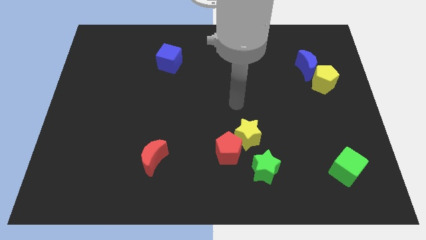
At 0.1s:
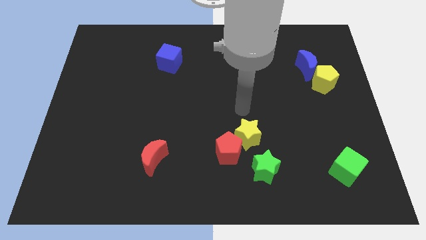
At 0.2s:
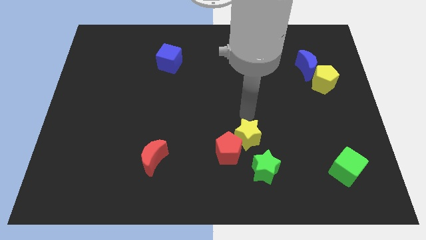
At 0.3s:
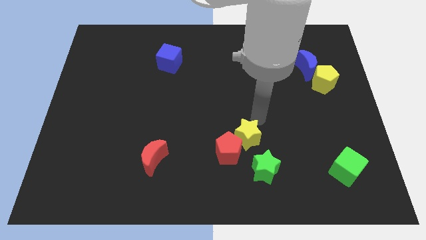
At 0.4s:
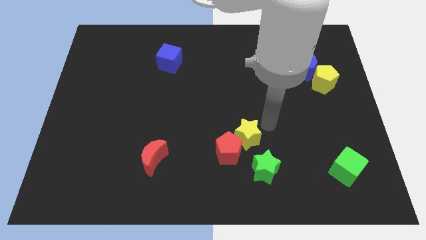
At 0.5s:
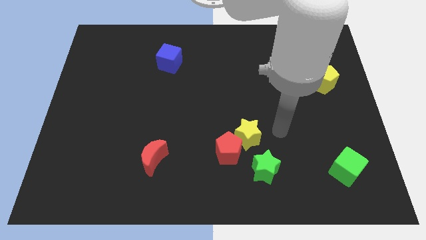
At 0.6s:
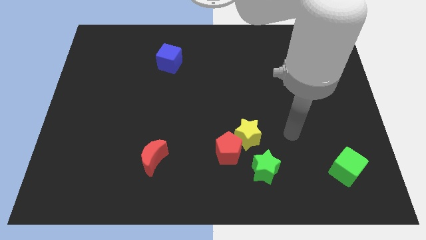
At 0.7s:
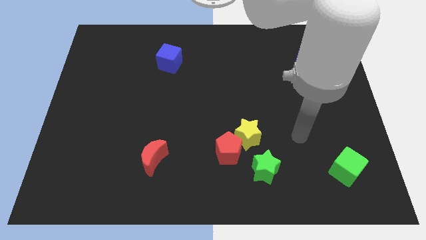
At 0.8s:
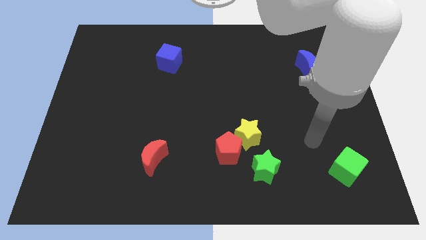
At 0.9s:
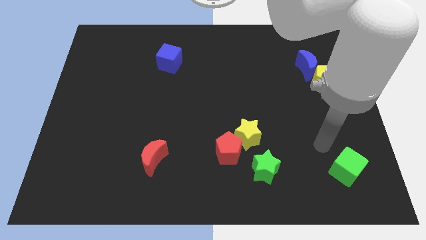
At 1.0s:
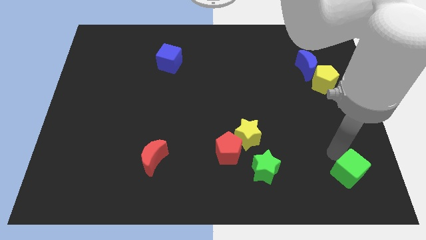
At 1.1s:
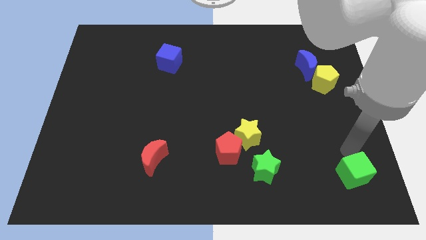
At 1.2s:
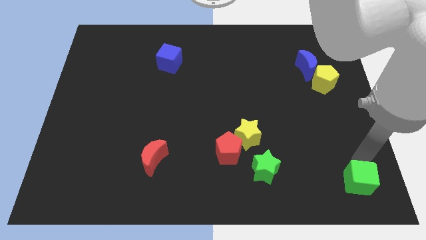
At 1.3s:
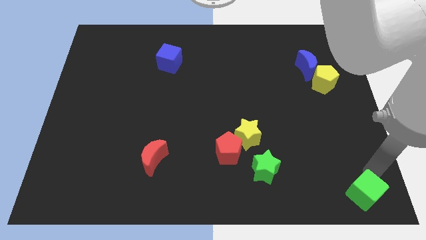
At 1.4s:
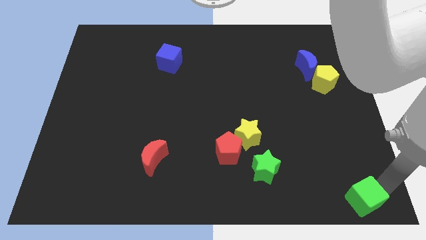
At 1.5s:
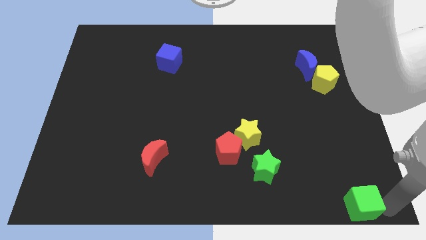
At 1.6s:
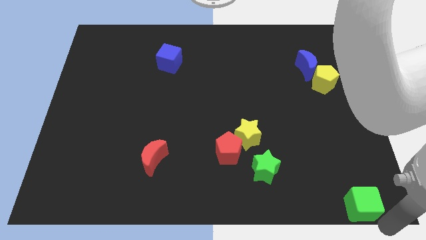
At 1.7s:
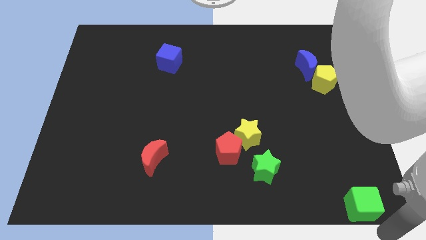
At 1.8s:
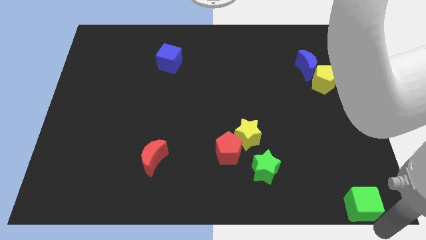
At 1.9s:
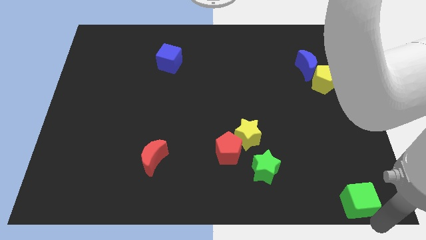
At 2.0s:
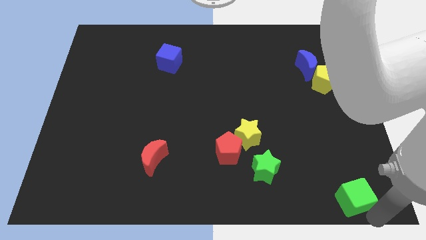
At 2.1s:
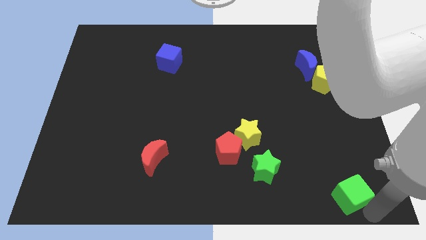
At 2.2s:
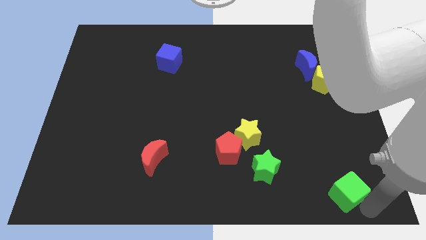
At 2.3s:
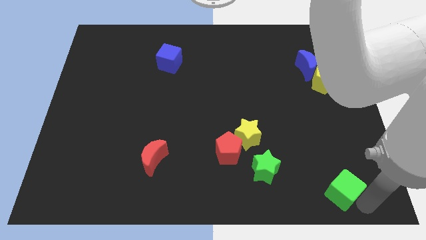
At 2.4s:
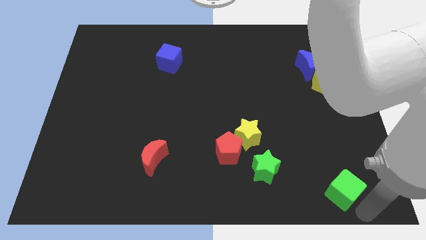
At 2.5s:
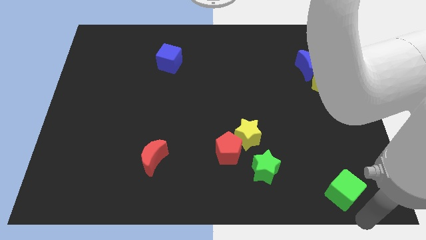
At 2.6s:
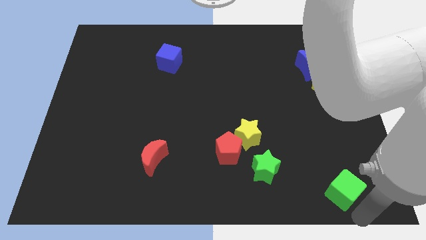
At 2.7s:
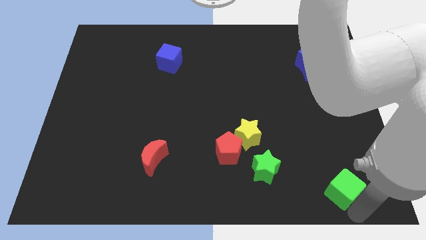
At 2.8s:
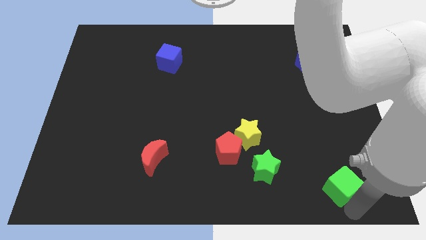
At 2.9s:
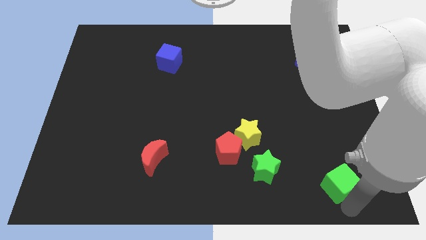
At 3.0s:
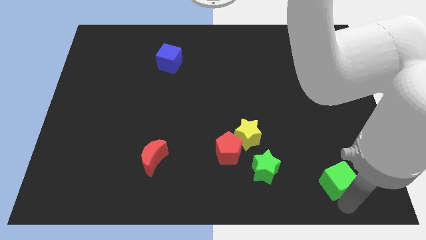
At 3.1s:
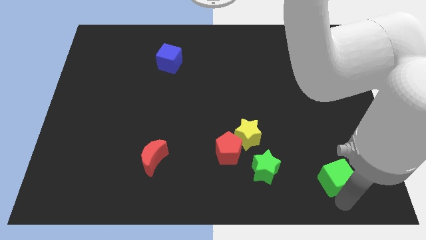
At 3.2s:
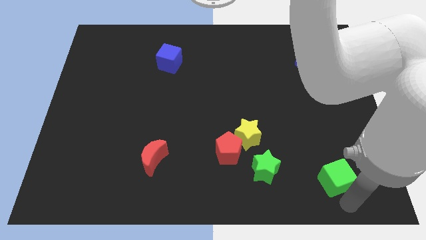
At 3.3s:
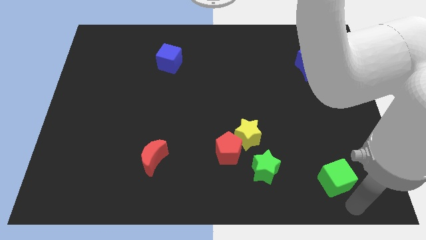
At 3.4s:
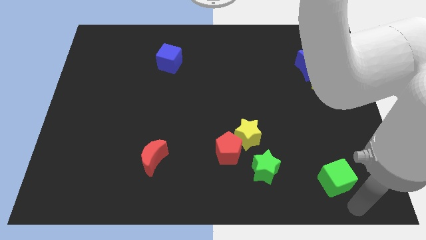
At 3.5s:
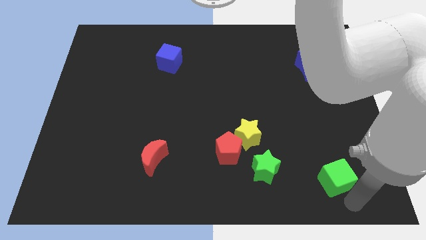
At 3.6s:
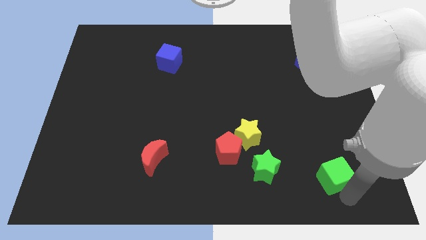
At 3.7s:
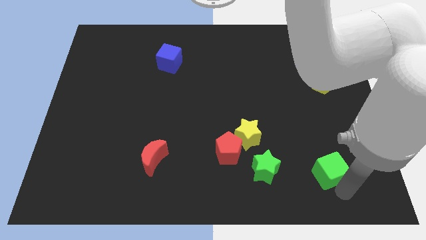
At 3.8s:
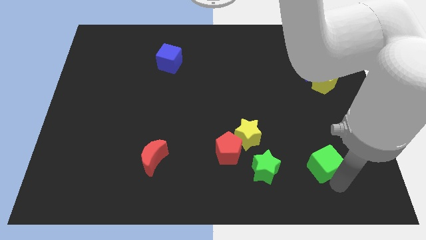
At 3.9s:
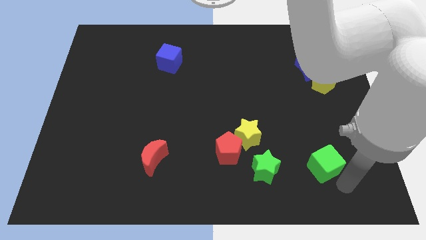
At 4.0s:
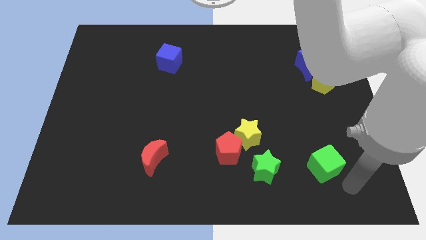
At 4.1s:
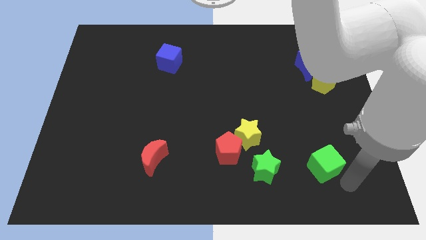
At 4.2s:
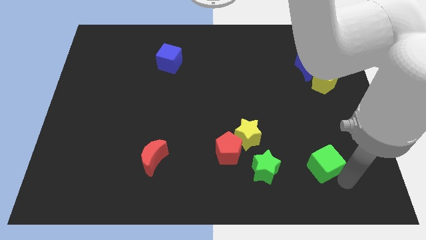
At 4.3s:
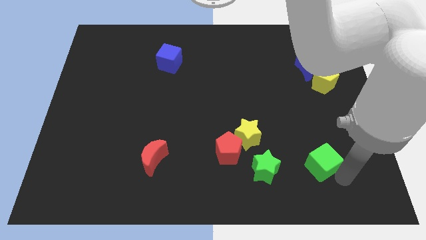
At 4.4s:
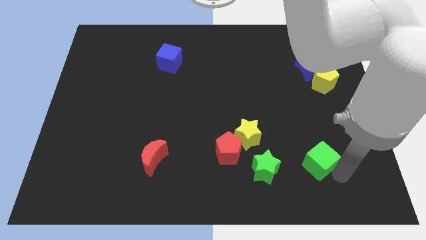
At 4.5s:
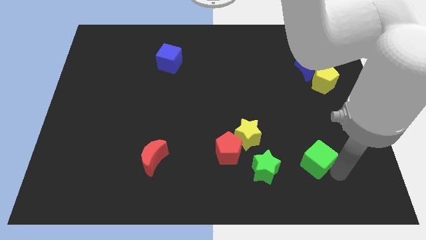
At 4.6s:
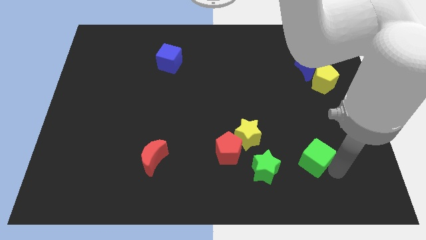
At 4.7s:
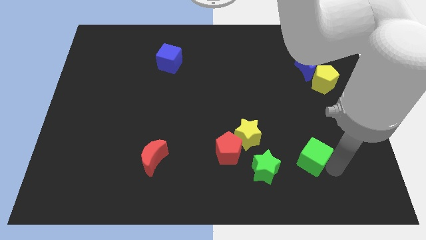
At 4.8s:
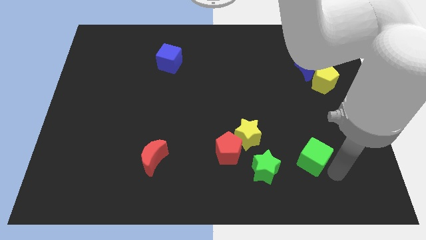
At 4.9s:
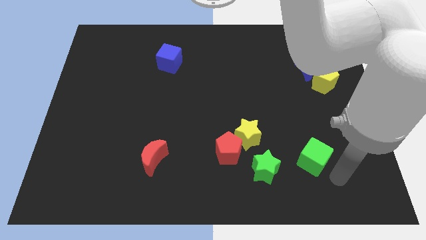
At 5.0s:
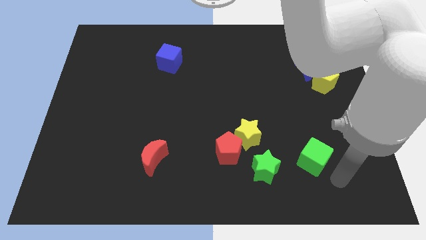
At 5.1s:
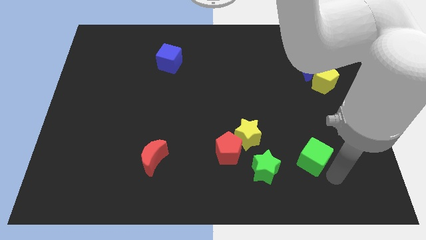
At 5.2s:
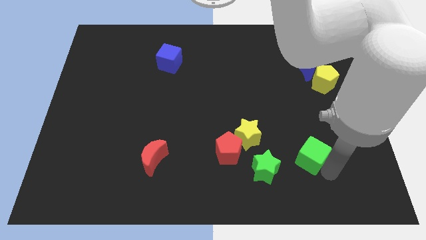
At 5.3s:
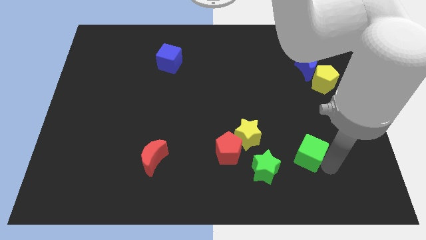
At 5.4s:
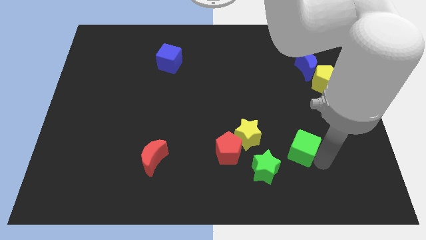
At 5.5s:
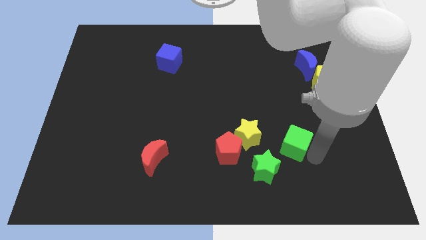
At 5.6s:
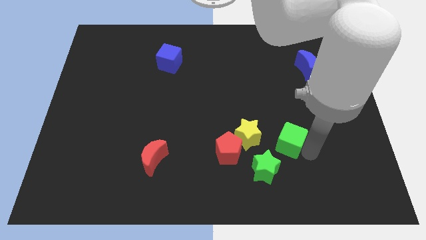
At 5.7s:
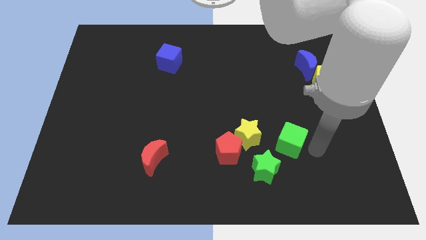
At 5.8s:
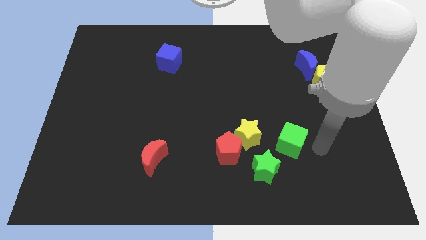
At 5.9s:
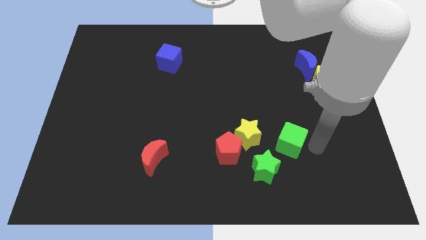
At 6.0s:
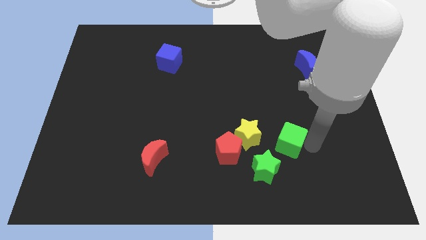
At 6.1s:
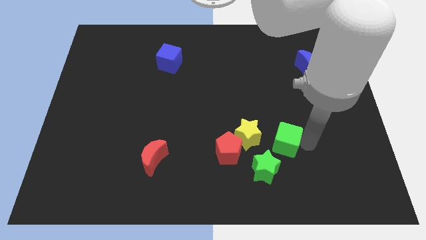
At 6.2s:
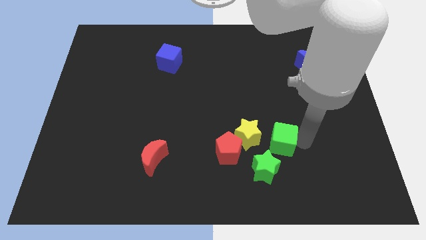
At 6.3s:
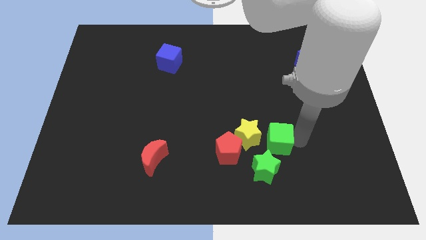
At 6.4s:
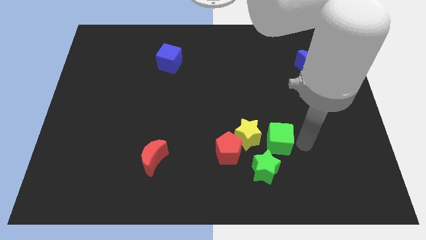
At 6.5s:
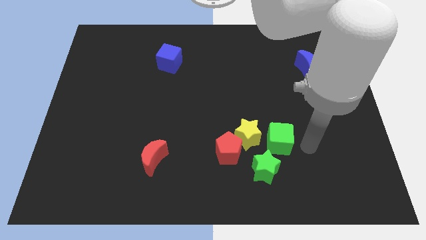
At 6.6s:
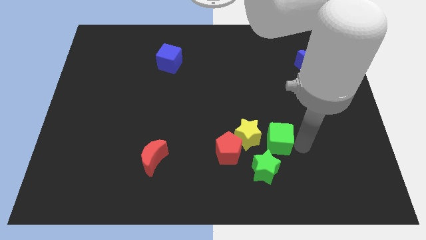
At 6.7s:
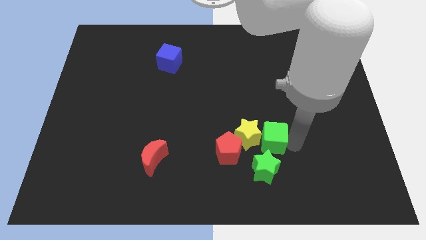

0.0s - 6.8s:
move the green cube towards the yellow star
